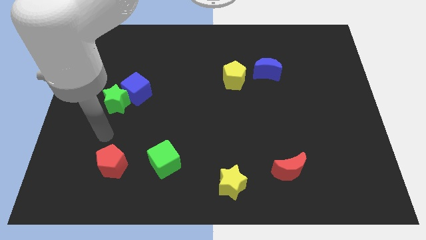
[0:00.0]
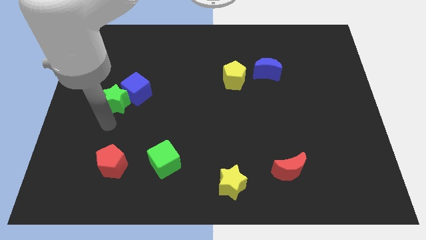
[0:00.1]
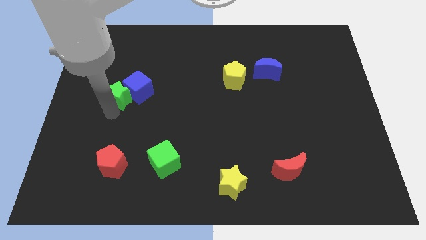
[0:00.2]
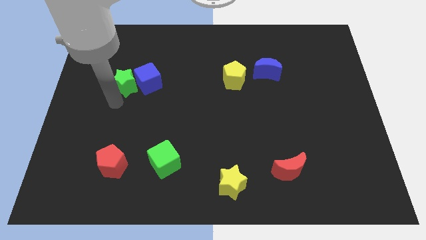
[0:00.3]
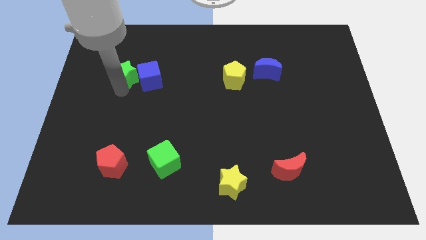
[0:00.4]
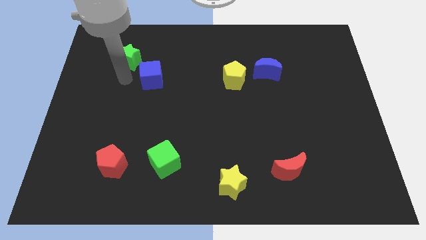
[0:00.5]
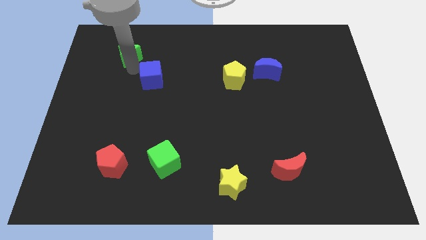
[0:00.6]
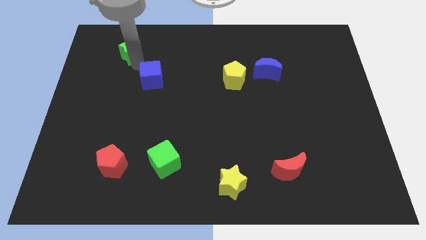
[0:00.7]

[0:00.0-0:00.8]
pull the blue cube apart from the green star

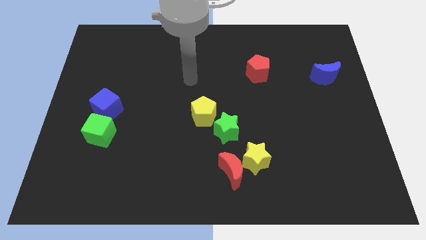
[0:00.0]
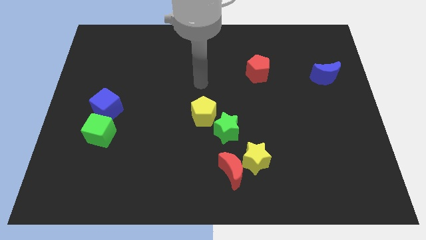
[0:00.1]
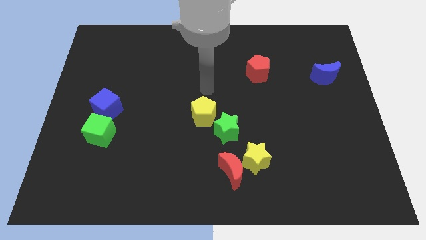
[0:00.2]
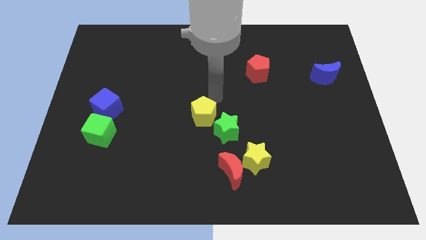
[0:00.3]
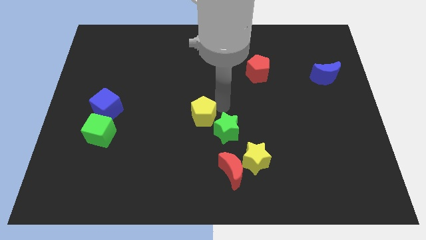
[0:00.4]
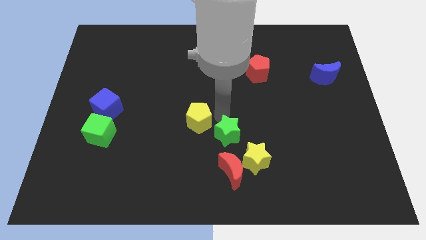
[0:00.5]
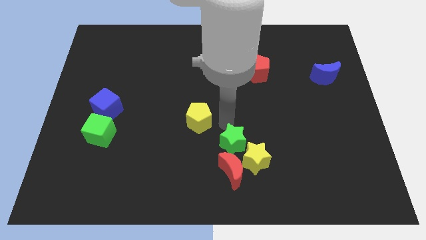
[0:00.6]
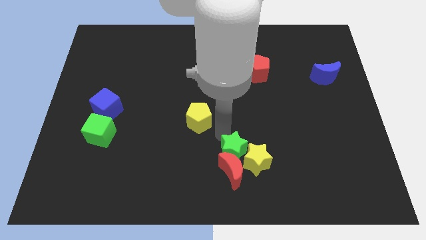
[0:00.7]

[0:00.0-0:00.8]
pull the yellow pentagon apart from the green star

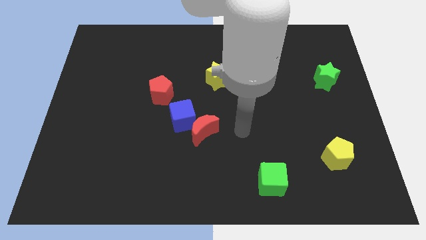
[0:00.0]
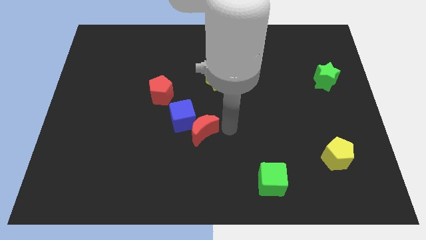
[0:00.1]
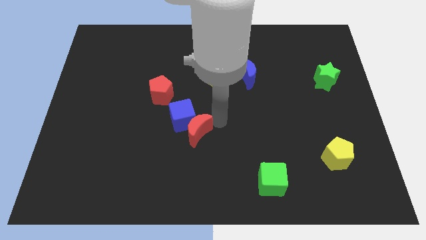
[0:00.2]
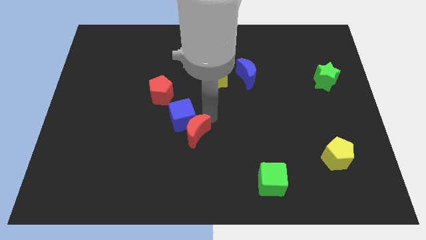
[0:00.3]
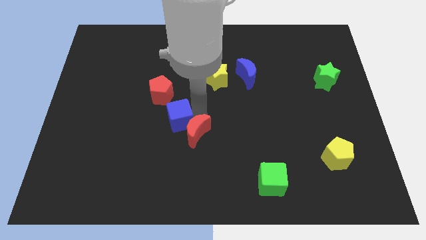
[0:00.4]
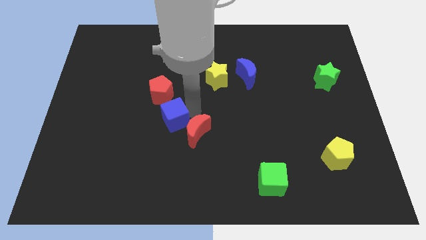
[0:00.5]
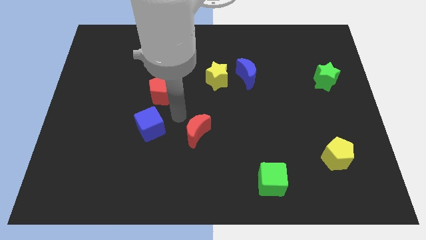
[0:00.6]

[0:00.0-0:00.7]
move the red moon away from the blue cube

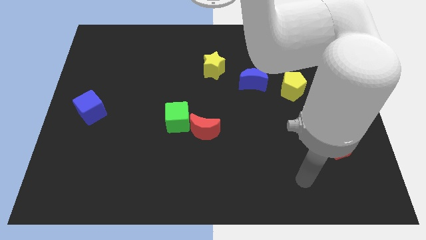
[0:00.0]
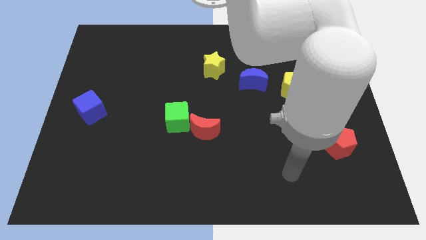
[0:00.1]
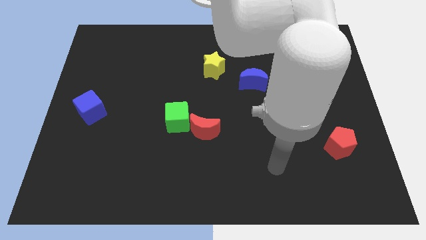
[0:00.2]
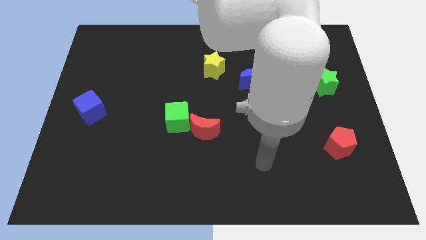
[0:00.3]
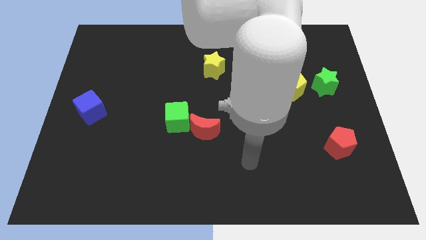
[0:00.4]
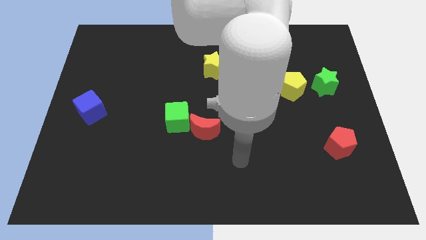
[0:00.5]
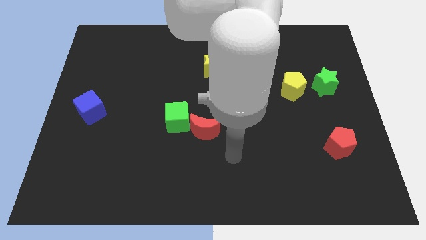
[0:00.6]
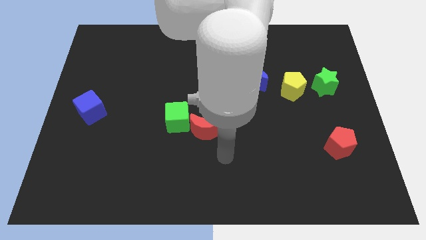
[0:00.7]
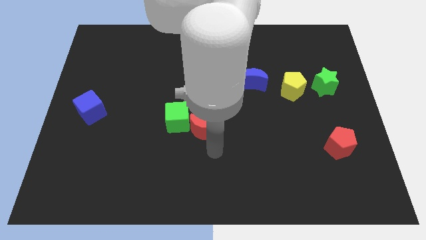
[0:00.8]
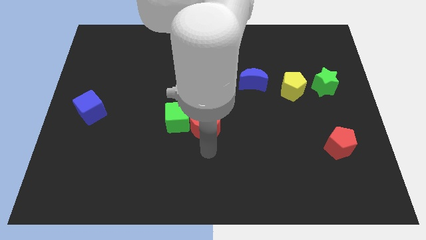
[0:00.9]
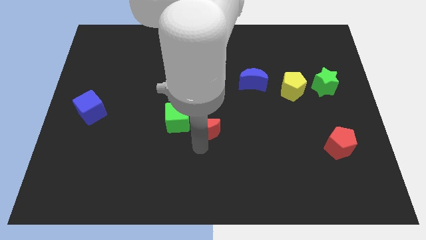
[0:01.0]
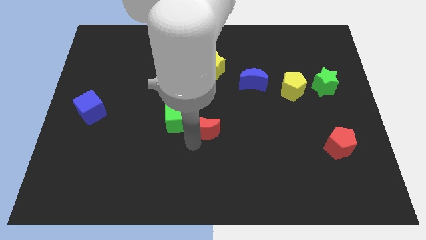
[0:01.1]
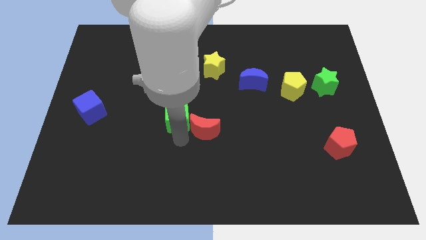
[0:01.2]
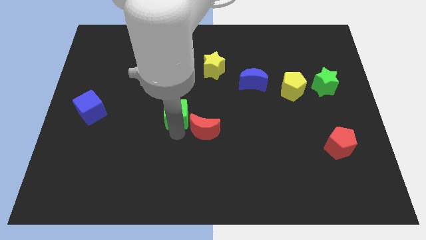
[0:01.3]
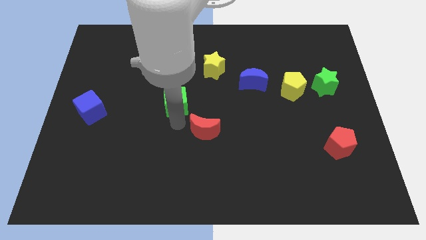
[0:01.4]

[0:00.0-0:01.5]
move the red moon away from the green cube

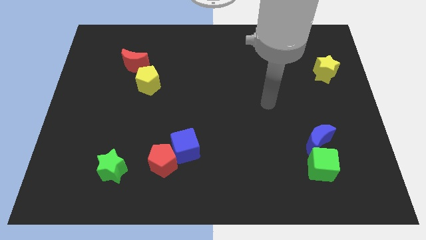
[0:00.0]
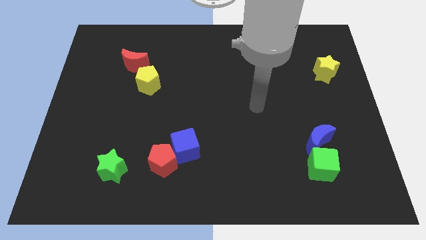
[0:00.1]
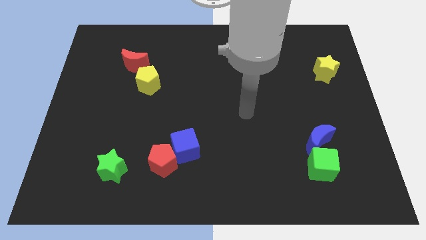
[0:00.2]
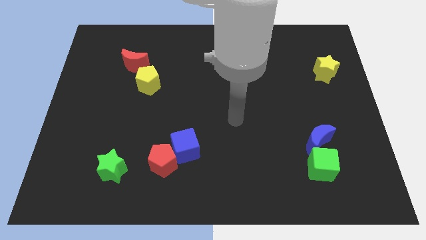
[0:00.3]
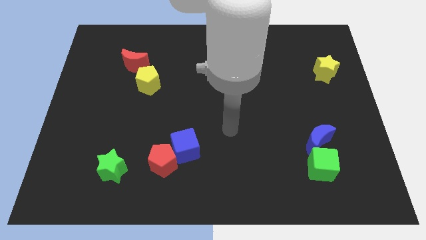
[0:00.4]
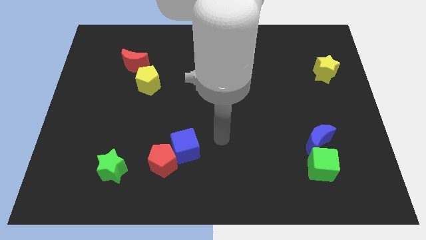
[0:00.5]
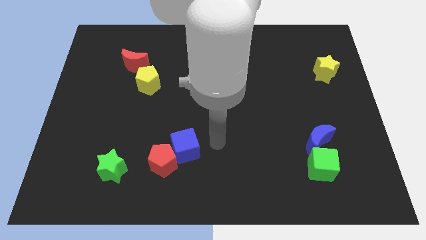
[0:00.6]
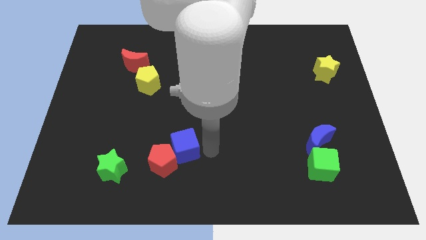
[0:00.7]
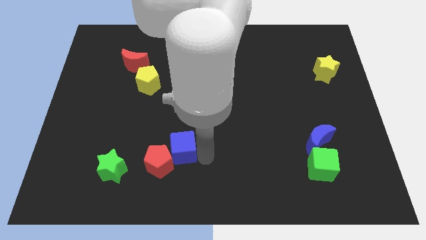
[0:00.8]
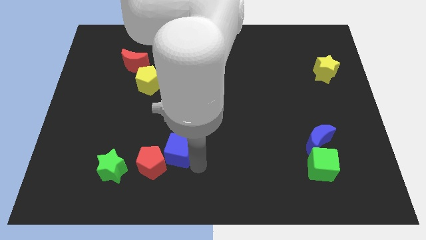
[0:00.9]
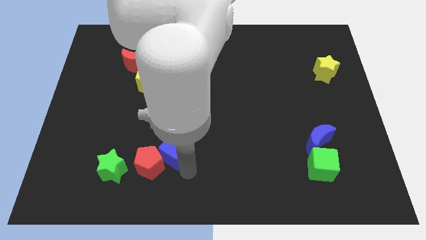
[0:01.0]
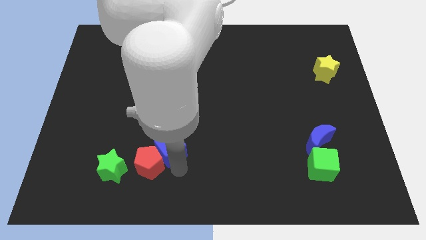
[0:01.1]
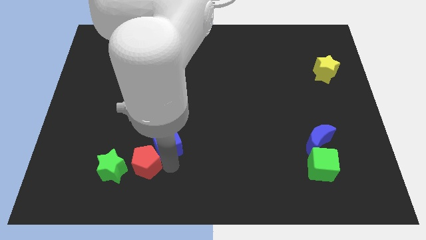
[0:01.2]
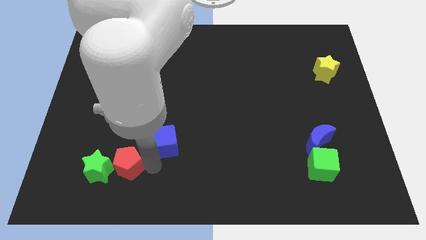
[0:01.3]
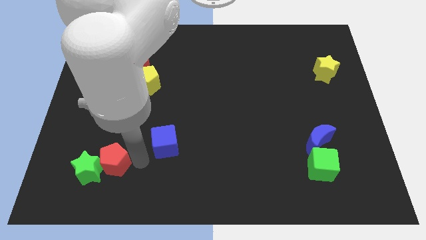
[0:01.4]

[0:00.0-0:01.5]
separate the blue cube from the red pentagon

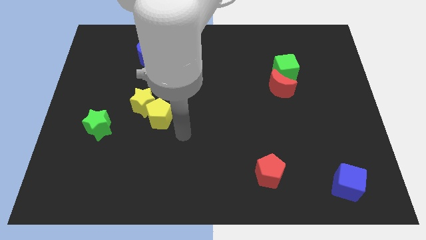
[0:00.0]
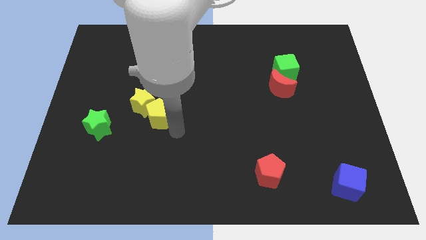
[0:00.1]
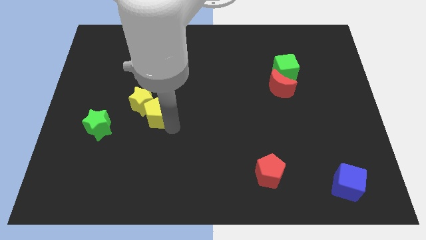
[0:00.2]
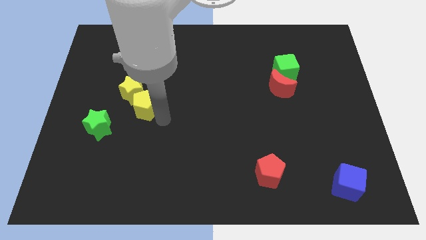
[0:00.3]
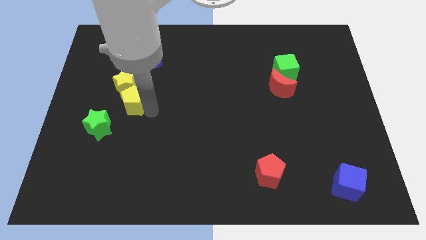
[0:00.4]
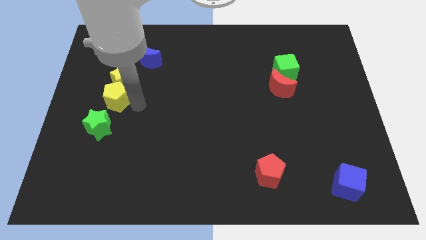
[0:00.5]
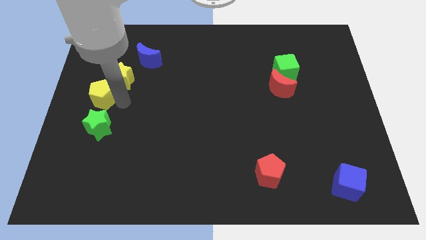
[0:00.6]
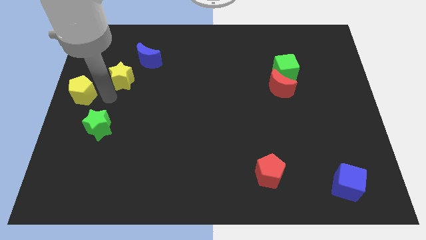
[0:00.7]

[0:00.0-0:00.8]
move the yellow star away from the yellow pentagon

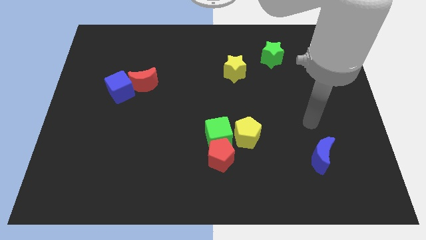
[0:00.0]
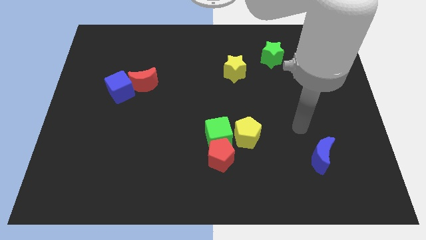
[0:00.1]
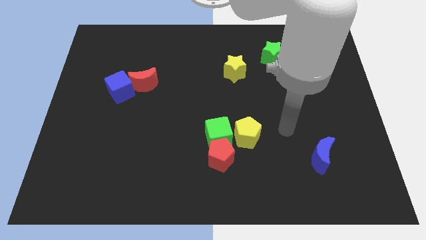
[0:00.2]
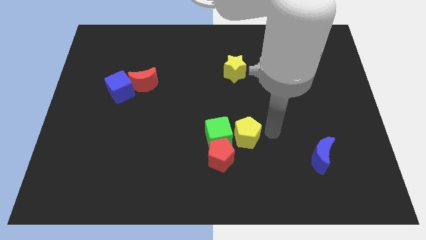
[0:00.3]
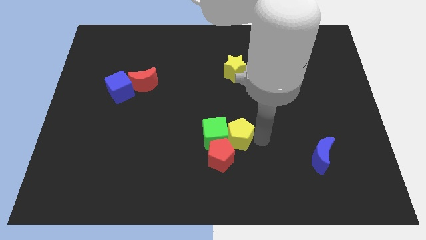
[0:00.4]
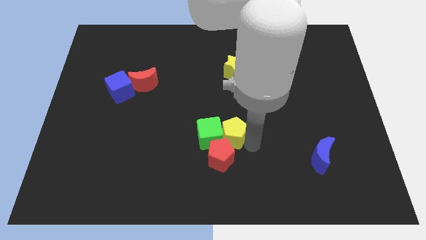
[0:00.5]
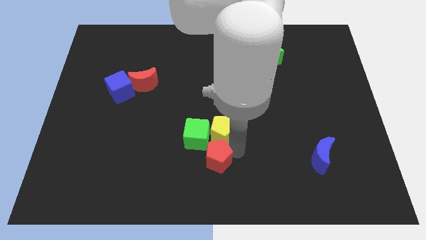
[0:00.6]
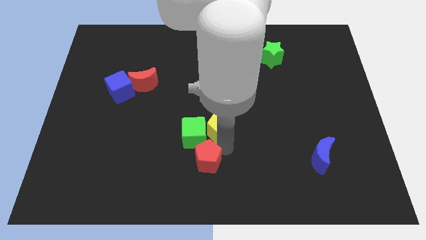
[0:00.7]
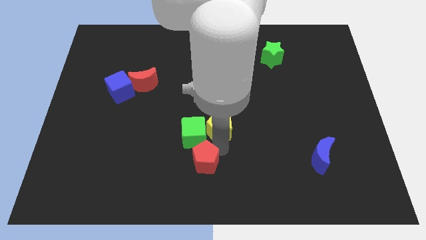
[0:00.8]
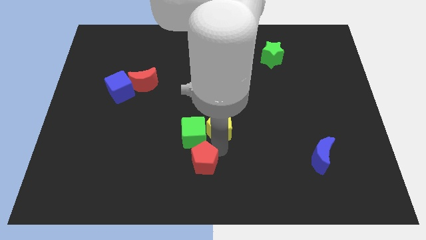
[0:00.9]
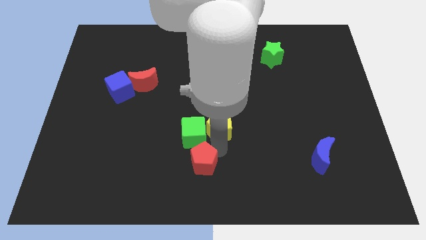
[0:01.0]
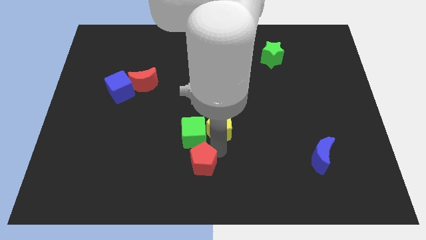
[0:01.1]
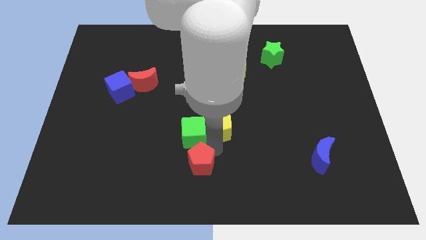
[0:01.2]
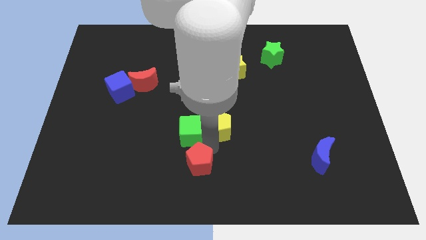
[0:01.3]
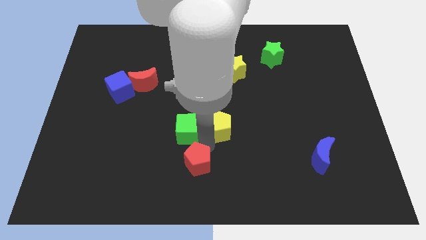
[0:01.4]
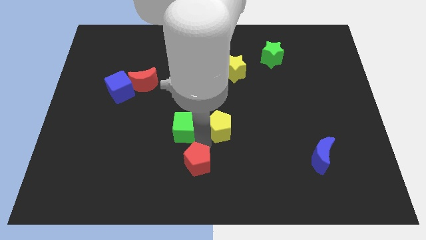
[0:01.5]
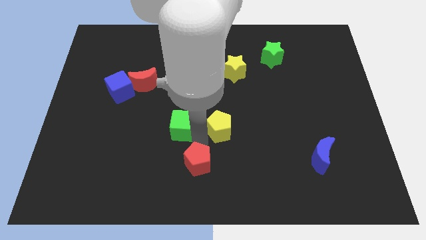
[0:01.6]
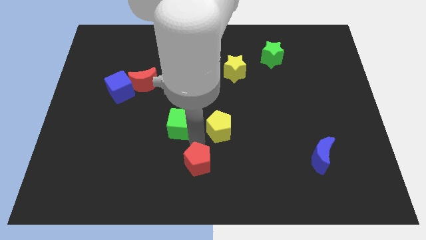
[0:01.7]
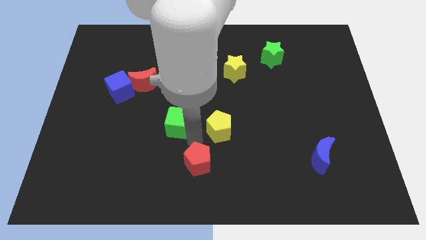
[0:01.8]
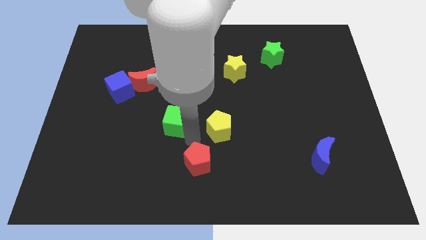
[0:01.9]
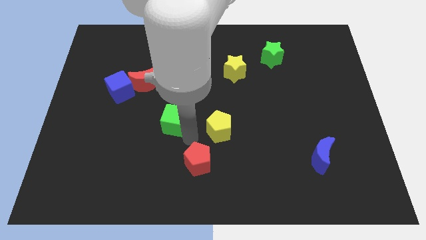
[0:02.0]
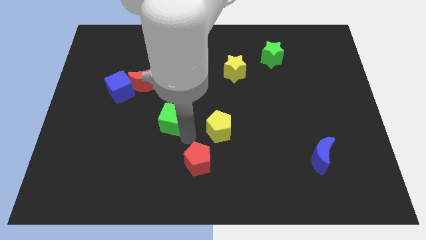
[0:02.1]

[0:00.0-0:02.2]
move the green cube away from the red pentagon and yellow pentagon

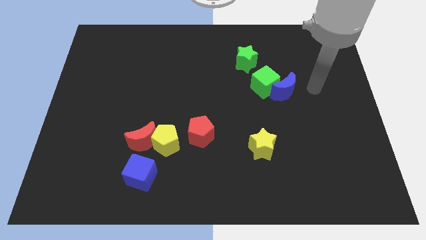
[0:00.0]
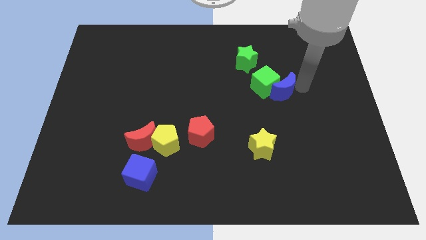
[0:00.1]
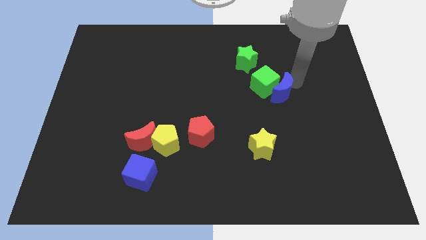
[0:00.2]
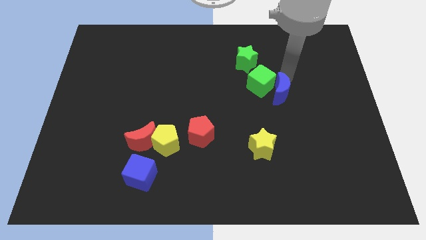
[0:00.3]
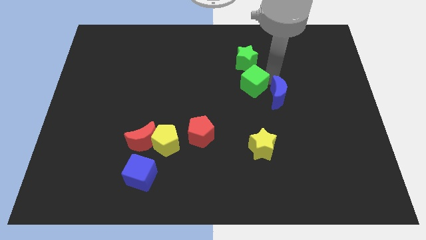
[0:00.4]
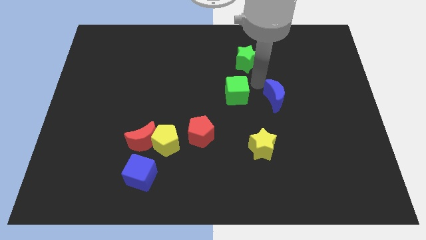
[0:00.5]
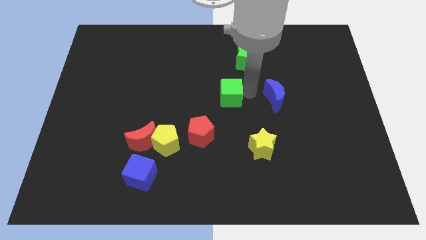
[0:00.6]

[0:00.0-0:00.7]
separate the blue moon from the green cube

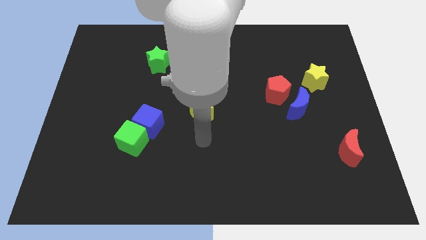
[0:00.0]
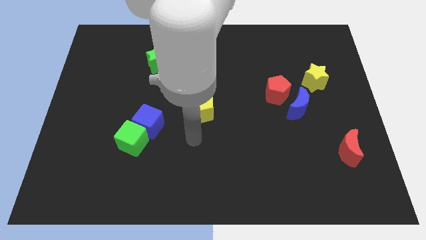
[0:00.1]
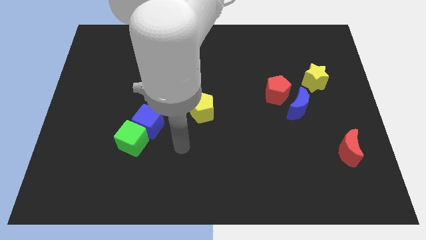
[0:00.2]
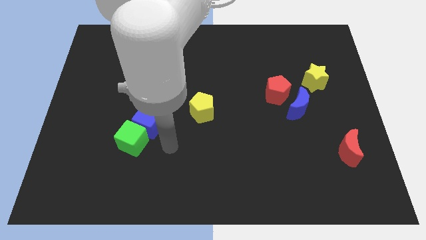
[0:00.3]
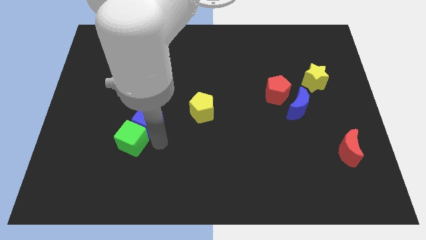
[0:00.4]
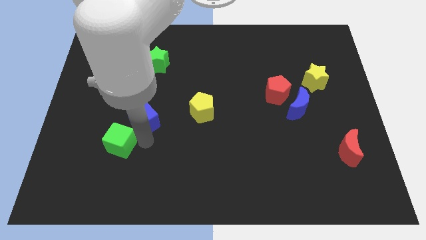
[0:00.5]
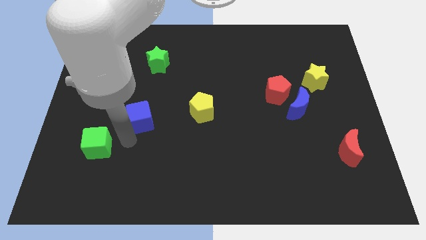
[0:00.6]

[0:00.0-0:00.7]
separate the blue cube from the green cube
